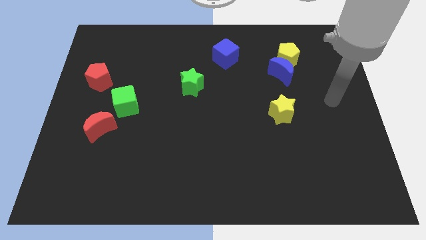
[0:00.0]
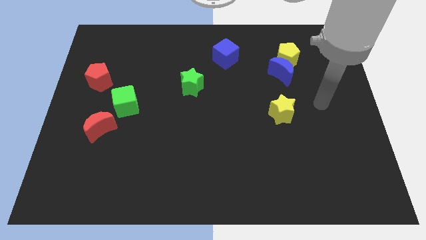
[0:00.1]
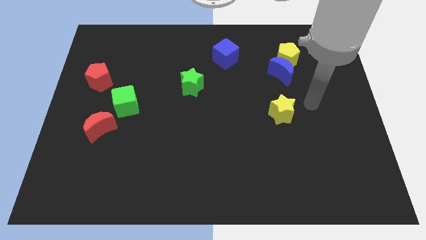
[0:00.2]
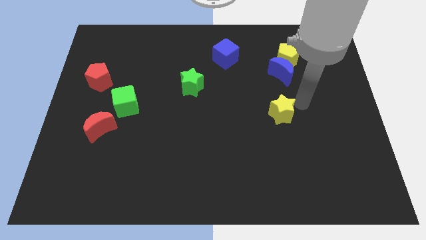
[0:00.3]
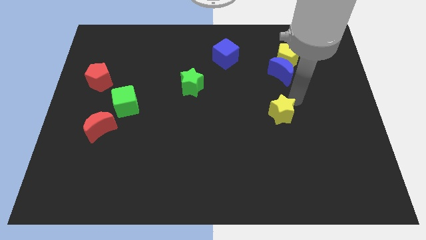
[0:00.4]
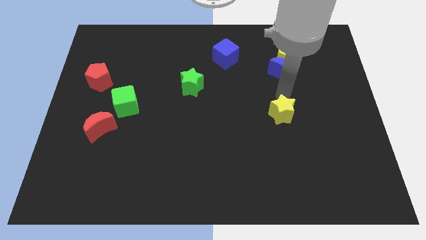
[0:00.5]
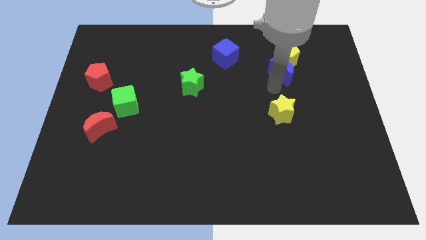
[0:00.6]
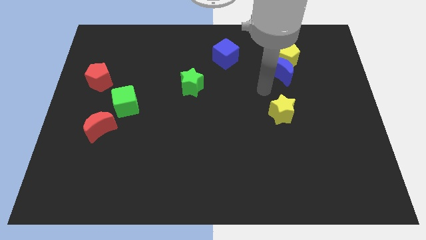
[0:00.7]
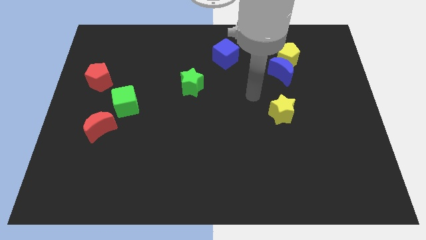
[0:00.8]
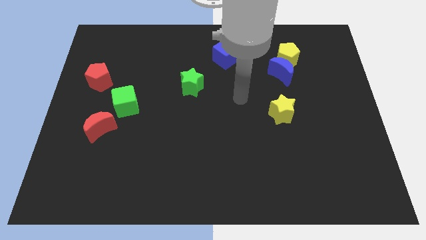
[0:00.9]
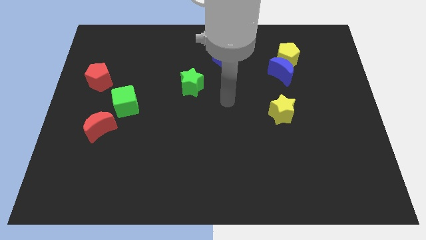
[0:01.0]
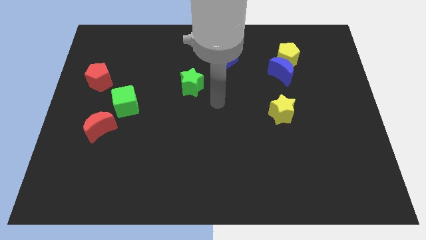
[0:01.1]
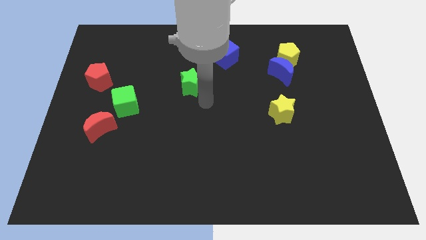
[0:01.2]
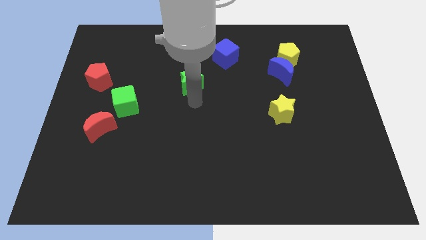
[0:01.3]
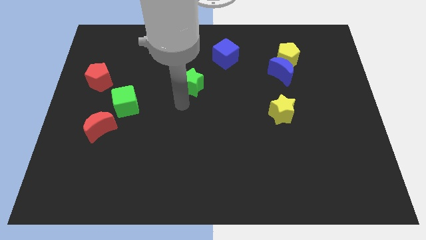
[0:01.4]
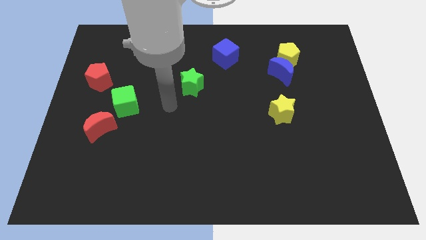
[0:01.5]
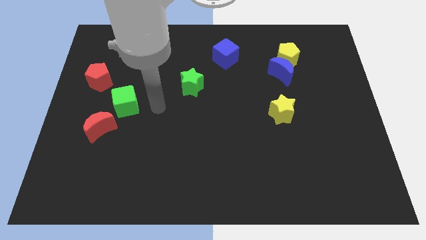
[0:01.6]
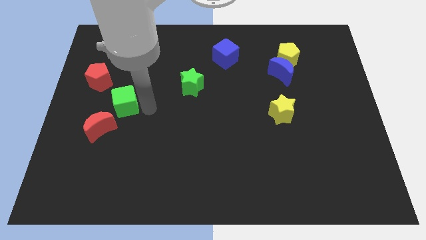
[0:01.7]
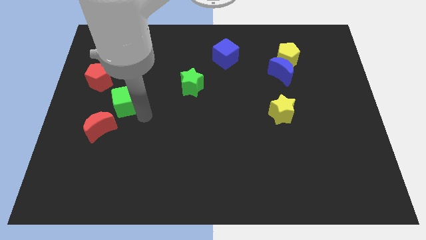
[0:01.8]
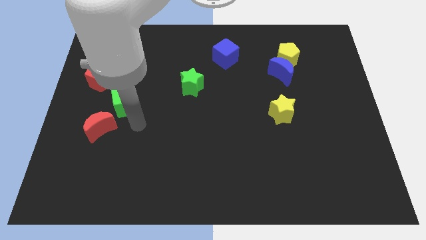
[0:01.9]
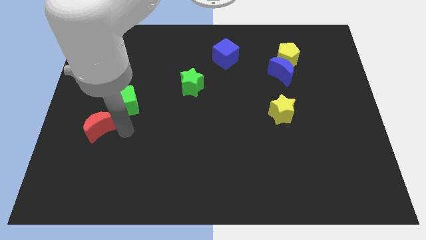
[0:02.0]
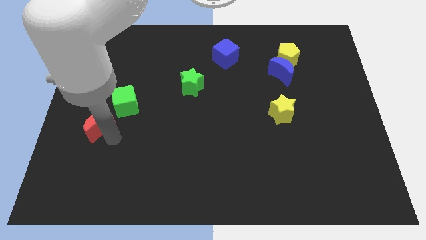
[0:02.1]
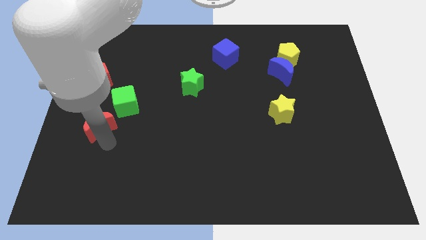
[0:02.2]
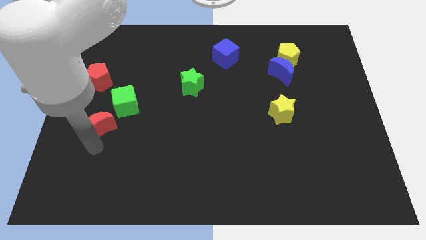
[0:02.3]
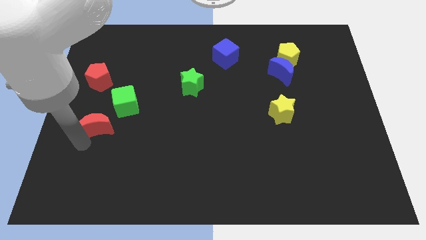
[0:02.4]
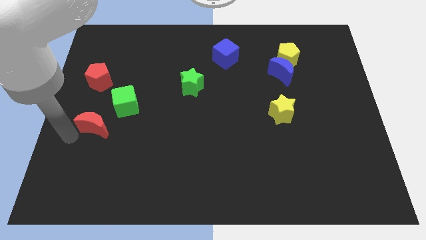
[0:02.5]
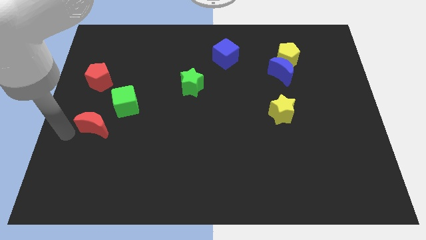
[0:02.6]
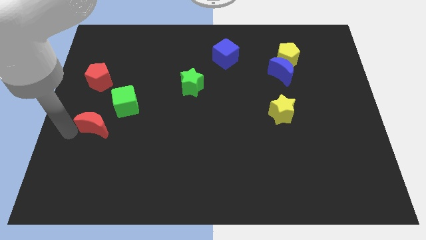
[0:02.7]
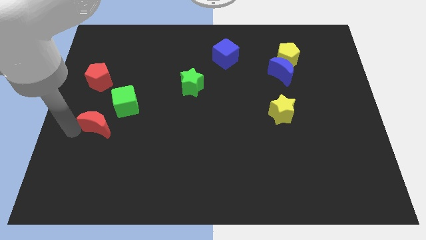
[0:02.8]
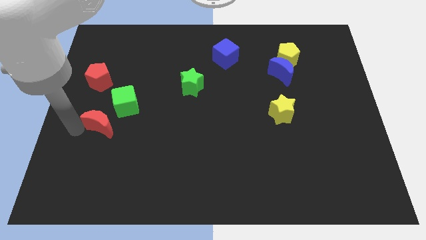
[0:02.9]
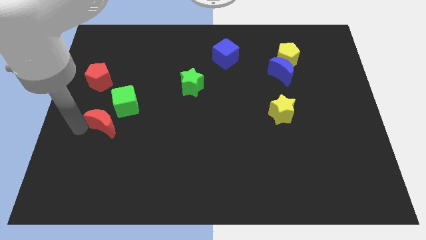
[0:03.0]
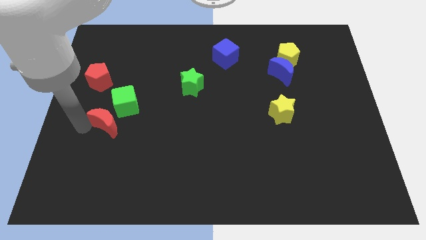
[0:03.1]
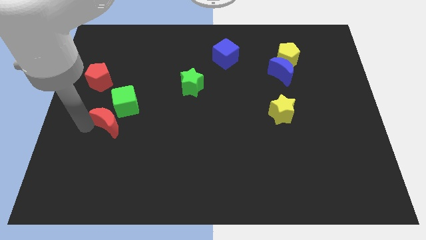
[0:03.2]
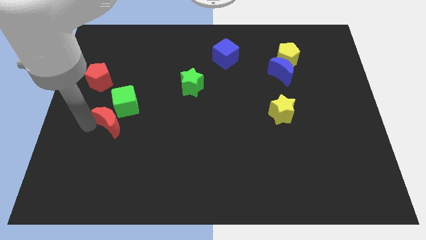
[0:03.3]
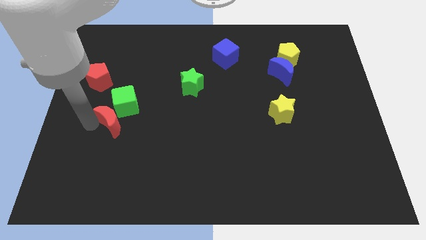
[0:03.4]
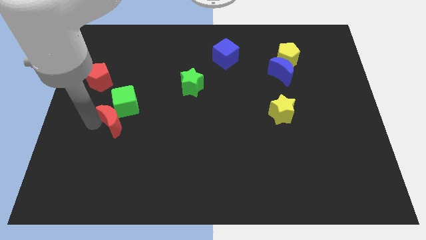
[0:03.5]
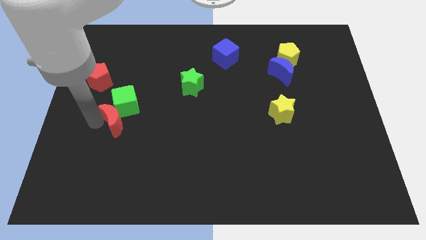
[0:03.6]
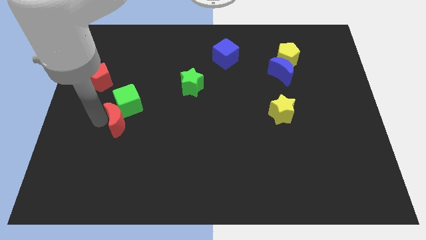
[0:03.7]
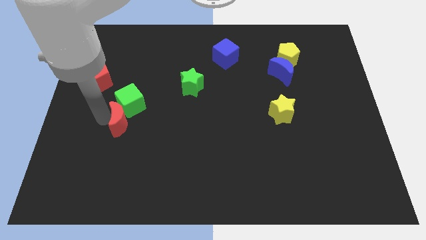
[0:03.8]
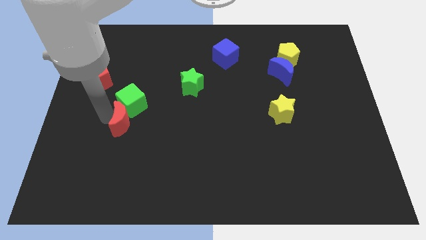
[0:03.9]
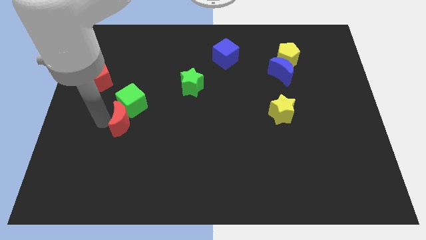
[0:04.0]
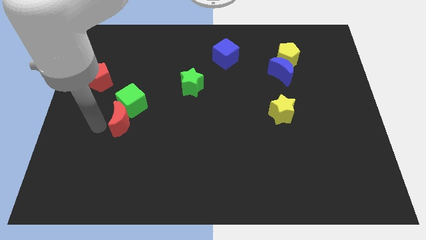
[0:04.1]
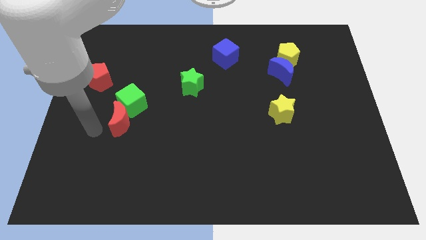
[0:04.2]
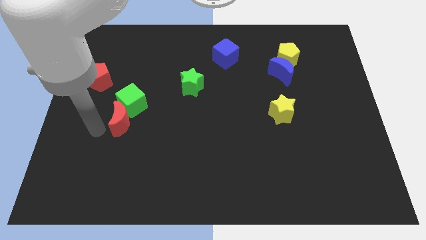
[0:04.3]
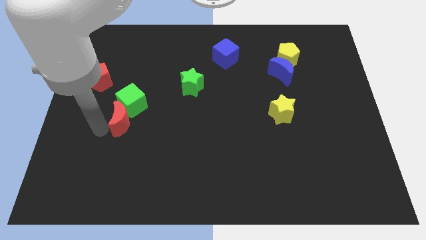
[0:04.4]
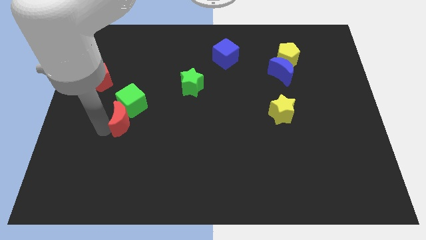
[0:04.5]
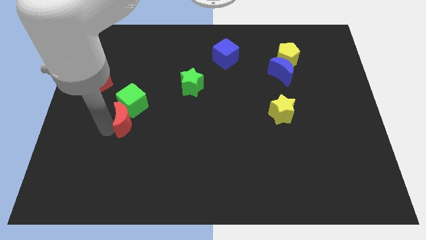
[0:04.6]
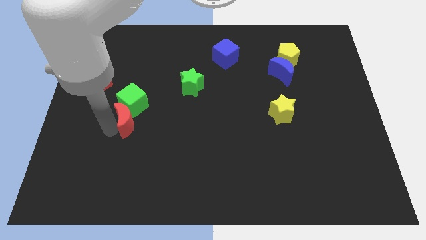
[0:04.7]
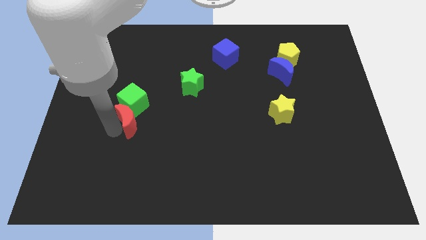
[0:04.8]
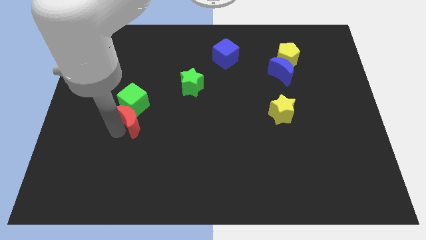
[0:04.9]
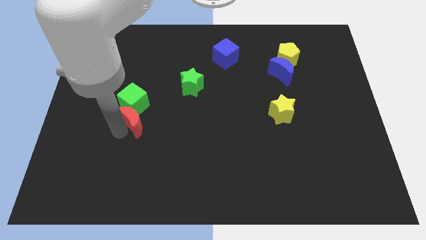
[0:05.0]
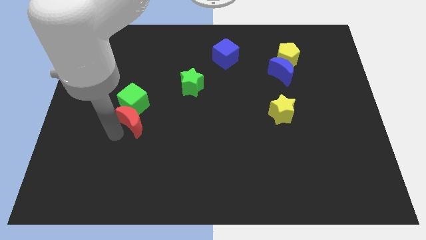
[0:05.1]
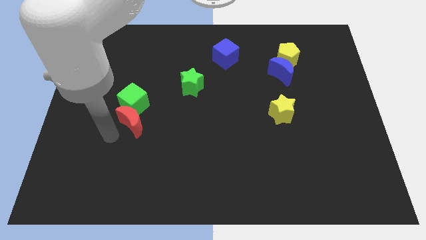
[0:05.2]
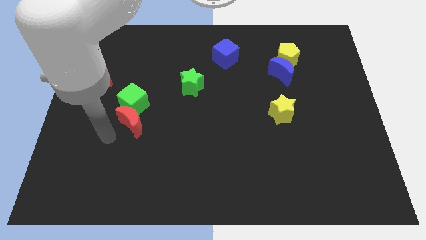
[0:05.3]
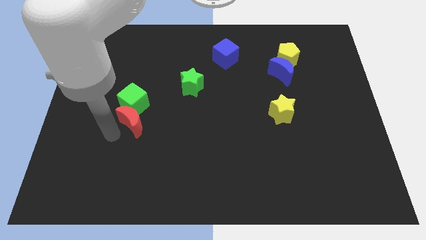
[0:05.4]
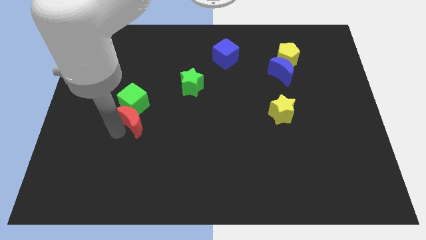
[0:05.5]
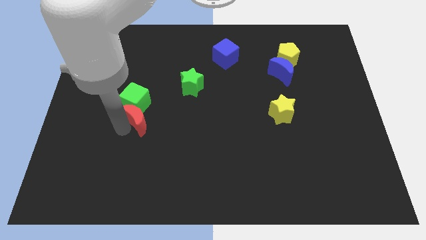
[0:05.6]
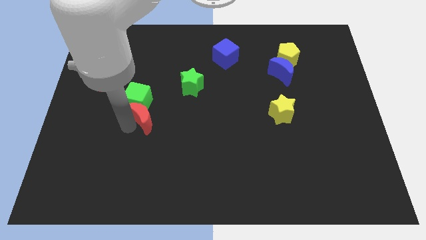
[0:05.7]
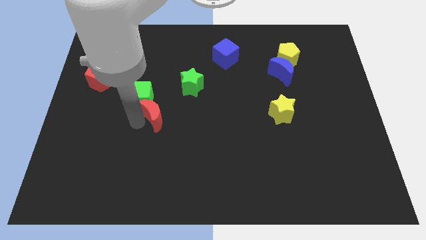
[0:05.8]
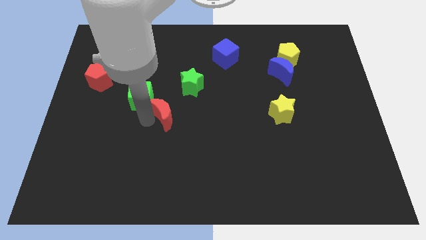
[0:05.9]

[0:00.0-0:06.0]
slide the red moon right of the green cube
